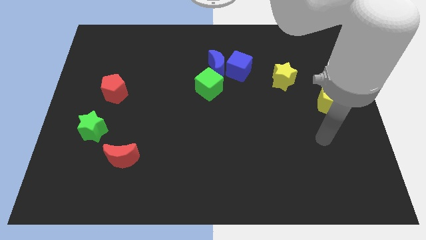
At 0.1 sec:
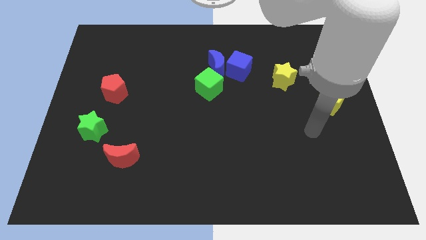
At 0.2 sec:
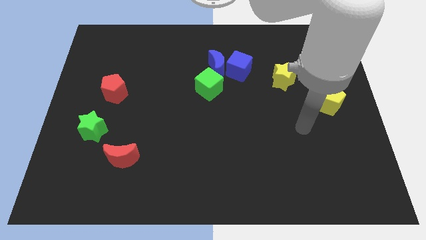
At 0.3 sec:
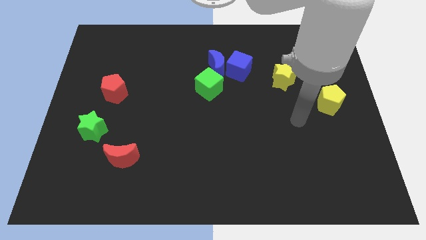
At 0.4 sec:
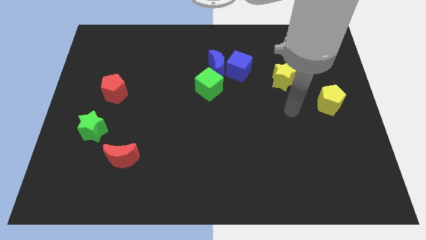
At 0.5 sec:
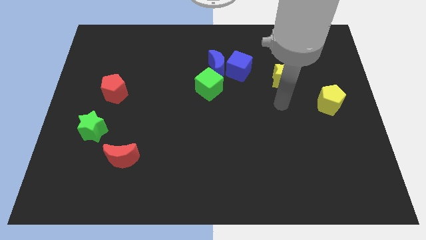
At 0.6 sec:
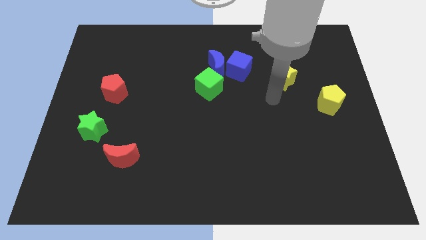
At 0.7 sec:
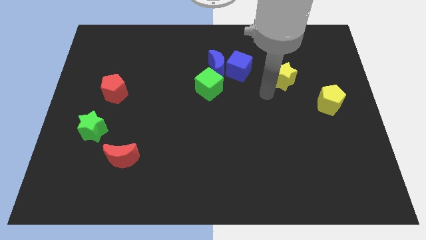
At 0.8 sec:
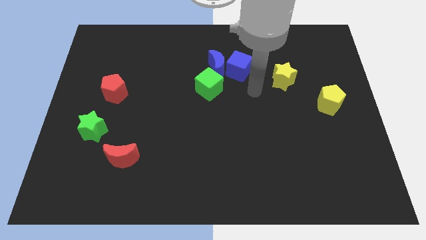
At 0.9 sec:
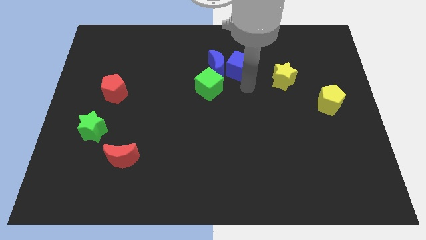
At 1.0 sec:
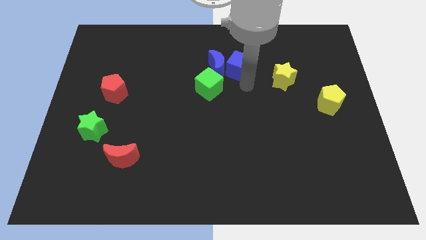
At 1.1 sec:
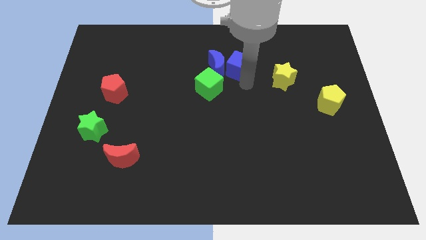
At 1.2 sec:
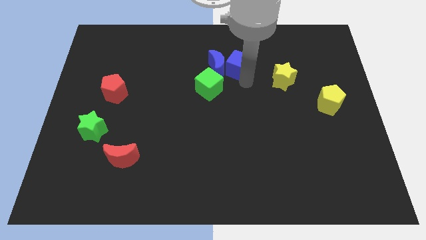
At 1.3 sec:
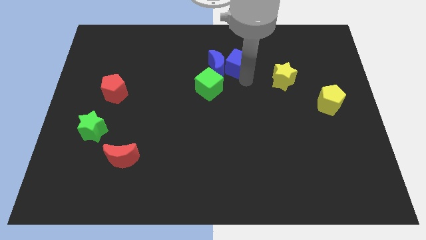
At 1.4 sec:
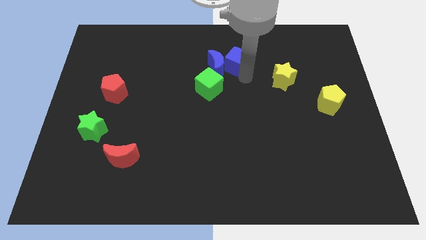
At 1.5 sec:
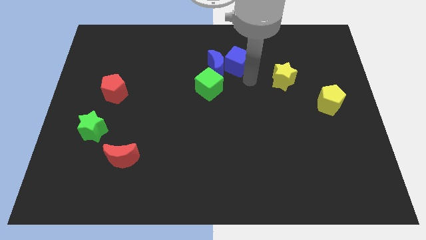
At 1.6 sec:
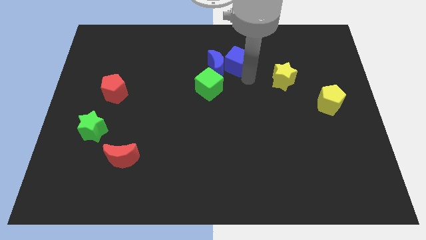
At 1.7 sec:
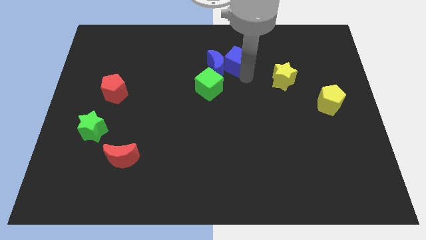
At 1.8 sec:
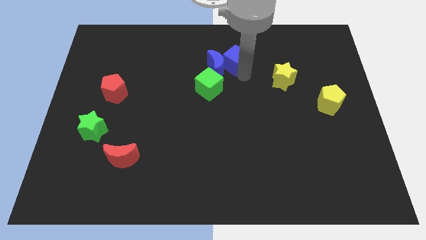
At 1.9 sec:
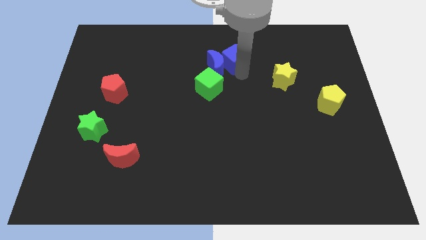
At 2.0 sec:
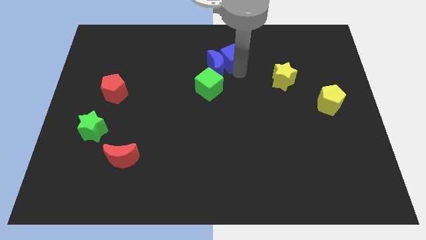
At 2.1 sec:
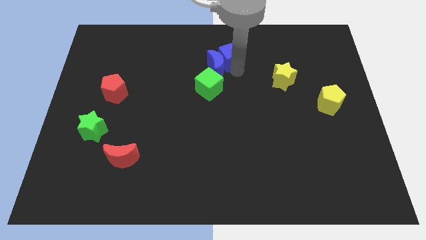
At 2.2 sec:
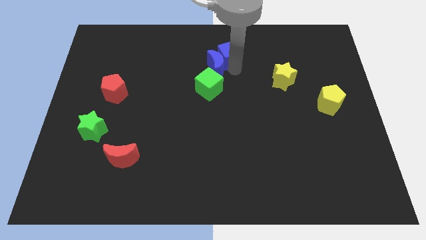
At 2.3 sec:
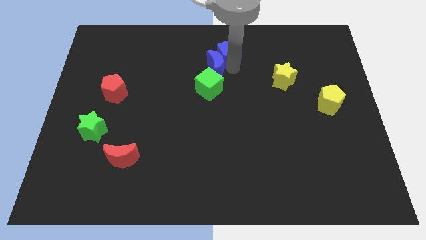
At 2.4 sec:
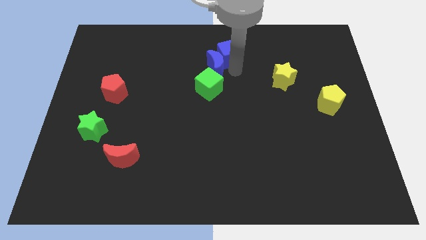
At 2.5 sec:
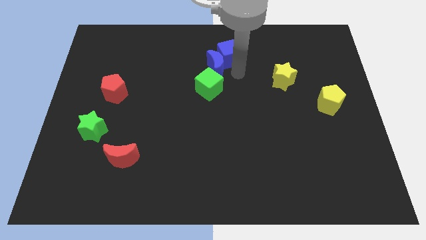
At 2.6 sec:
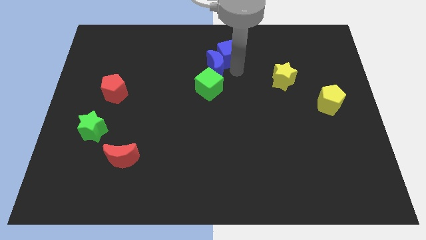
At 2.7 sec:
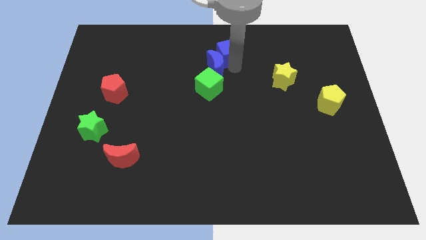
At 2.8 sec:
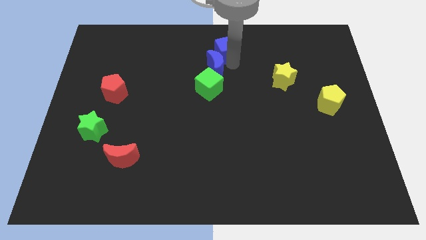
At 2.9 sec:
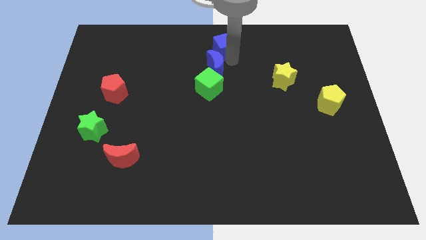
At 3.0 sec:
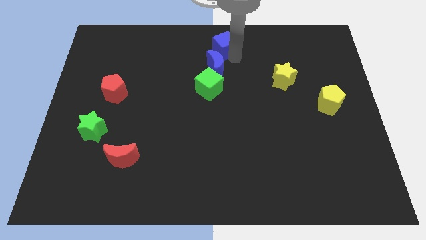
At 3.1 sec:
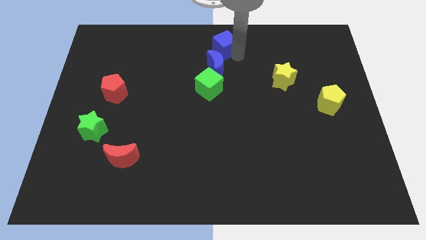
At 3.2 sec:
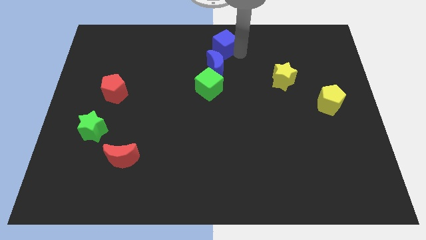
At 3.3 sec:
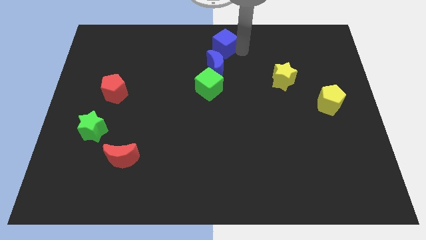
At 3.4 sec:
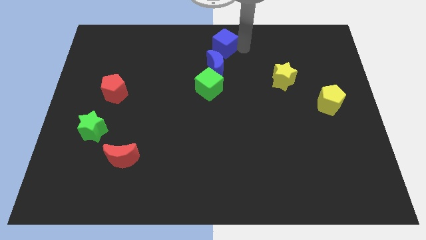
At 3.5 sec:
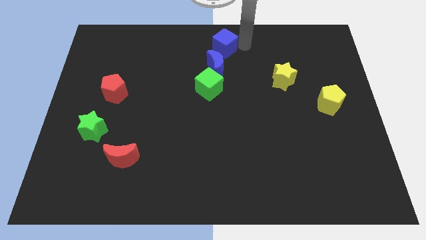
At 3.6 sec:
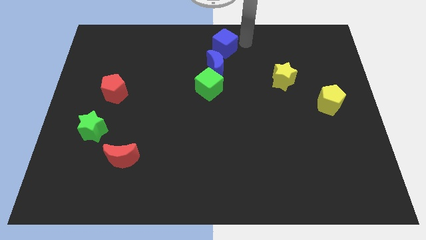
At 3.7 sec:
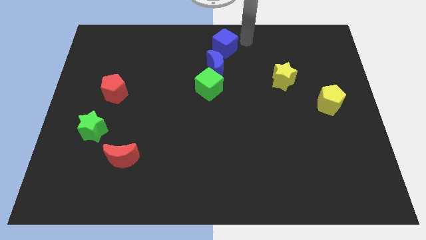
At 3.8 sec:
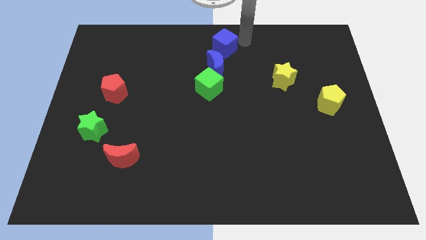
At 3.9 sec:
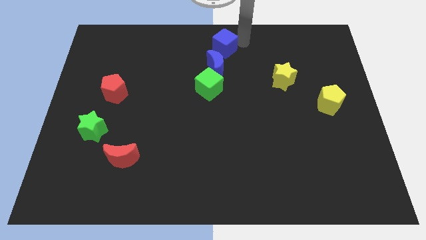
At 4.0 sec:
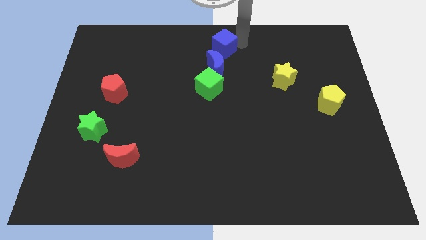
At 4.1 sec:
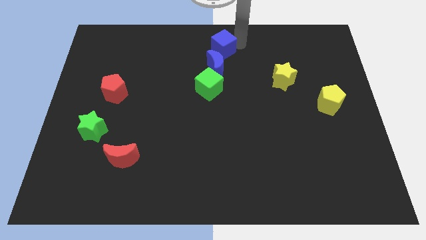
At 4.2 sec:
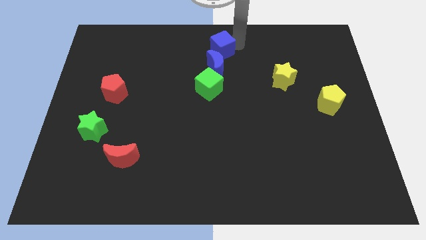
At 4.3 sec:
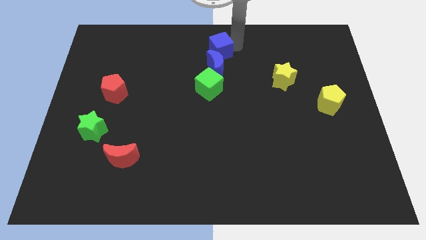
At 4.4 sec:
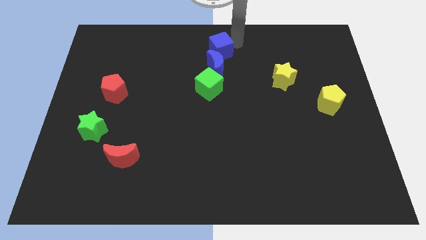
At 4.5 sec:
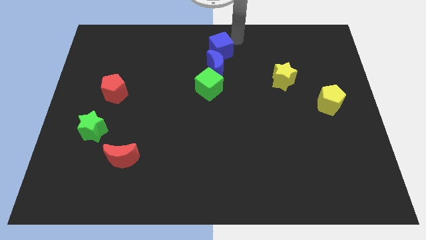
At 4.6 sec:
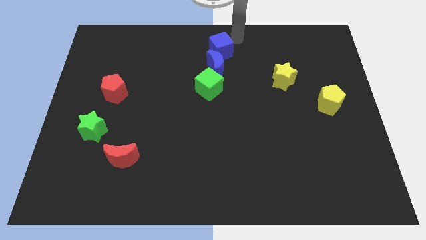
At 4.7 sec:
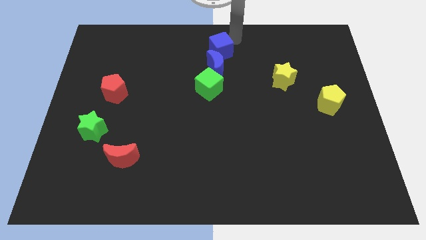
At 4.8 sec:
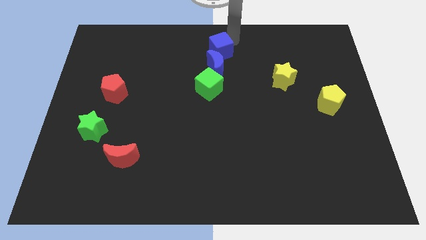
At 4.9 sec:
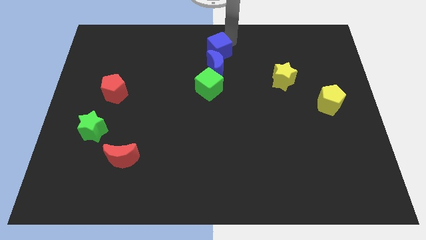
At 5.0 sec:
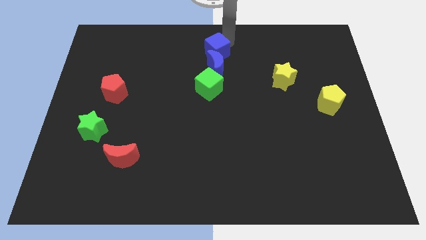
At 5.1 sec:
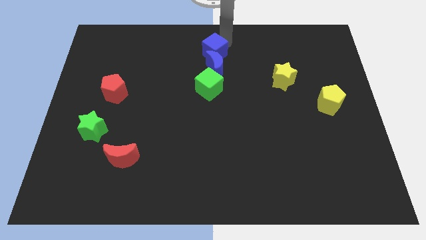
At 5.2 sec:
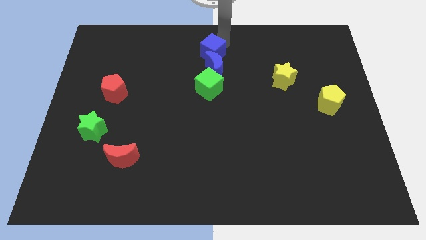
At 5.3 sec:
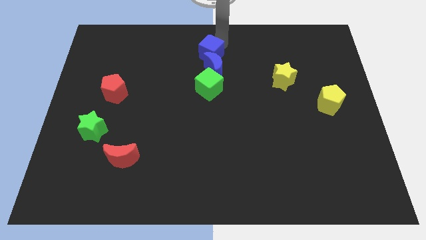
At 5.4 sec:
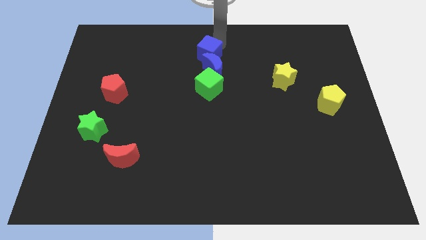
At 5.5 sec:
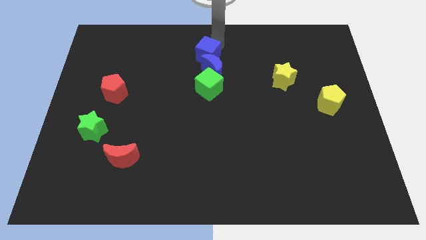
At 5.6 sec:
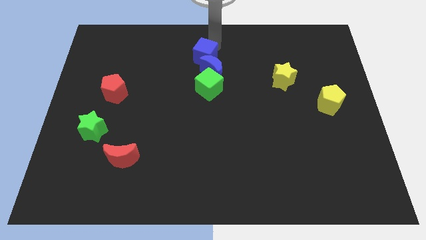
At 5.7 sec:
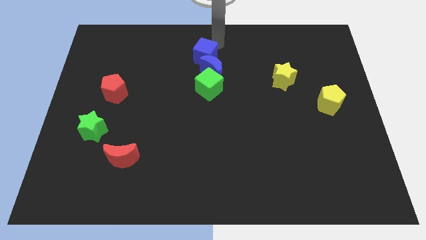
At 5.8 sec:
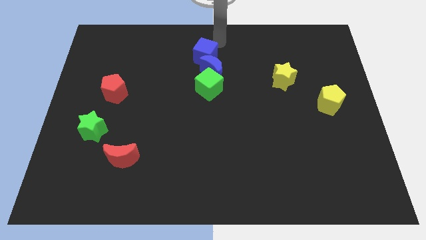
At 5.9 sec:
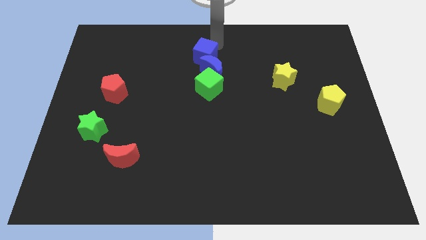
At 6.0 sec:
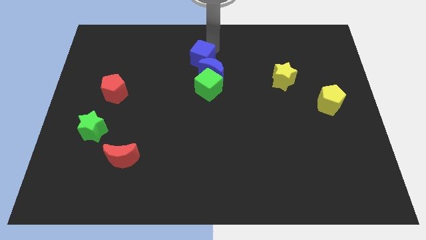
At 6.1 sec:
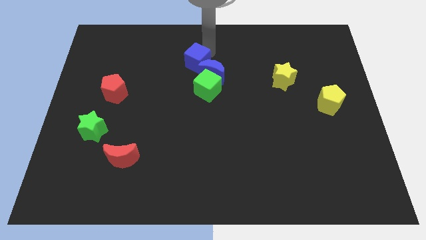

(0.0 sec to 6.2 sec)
put the blue cube diagonally up and to the left of the green cube

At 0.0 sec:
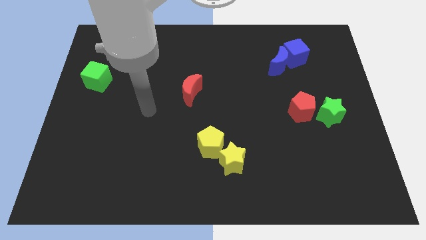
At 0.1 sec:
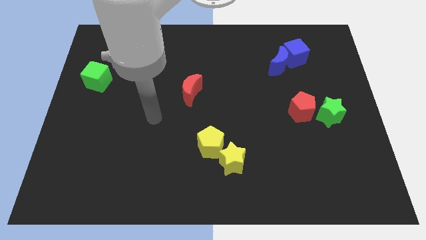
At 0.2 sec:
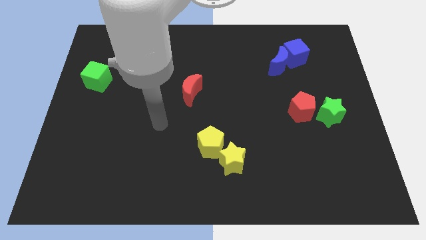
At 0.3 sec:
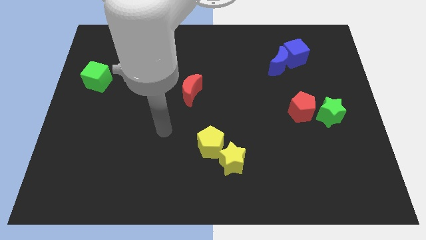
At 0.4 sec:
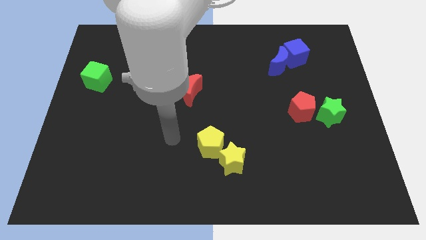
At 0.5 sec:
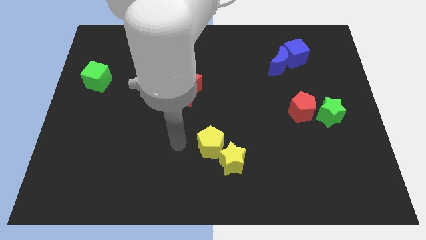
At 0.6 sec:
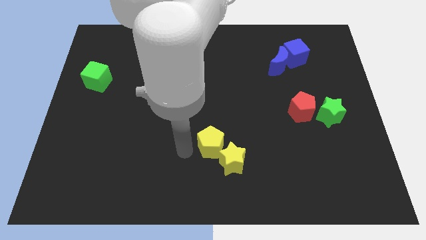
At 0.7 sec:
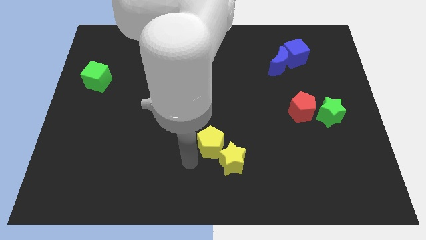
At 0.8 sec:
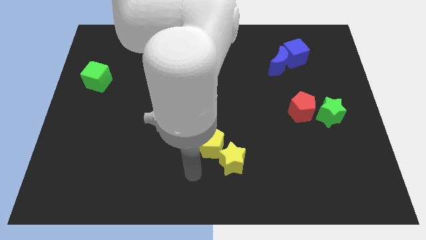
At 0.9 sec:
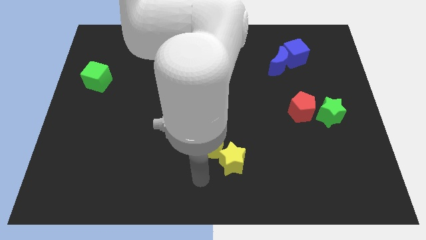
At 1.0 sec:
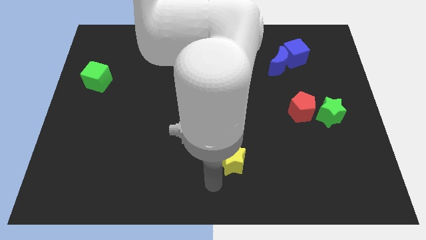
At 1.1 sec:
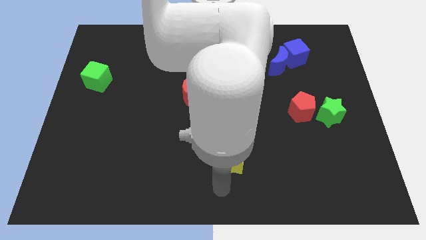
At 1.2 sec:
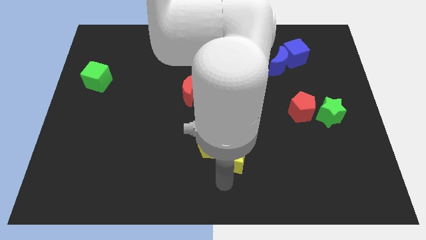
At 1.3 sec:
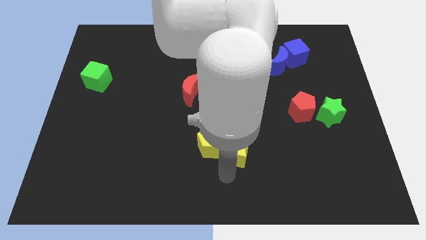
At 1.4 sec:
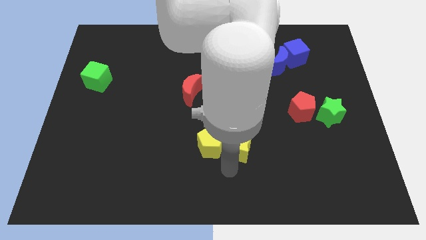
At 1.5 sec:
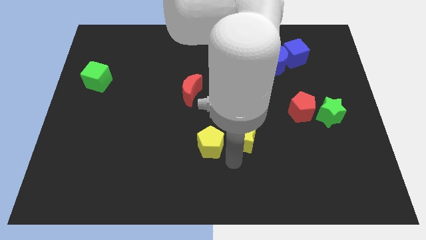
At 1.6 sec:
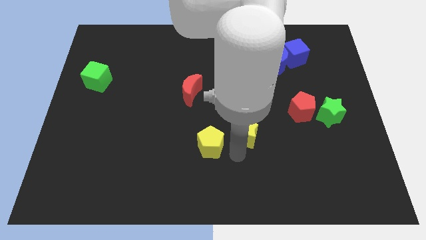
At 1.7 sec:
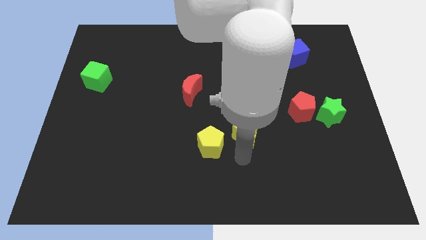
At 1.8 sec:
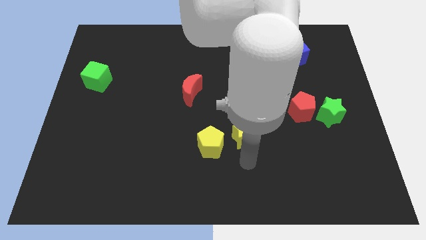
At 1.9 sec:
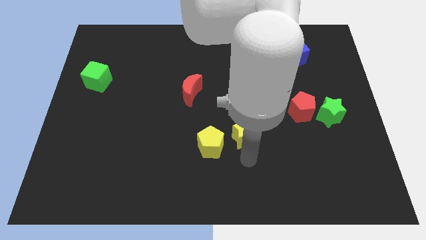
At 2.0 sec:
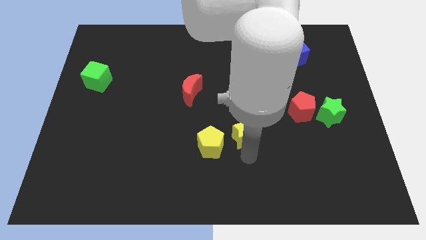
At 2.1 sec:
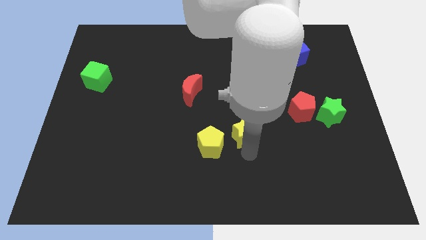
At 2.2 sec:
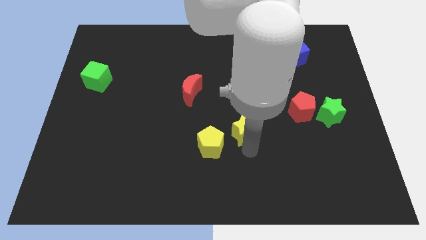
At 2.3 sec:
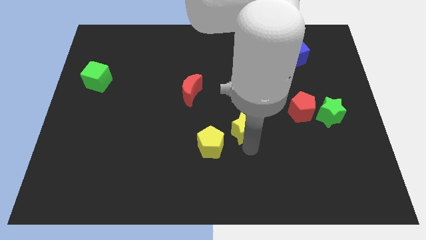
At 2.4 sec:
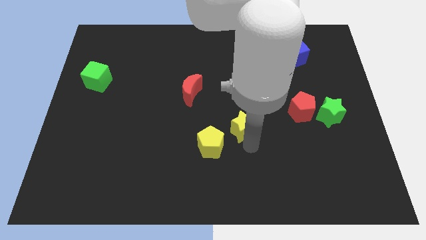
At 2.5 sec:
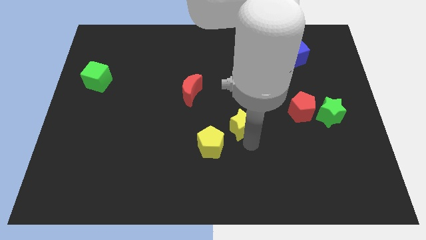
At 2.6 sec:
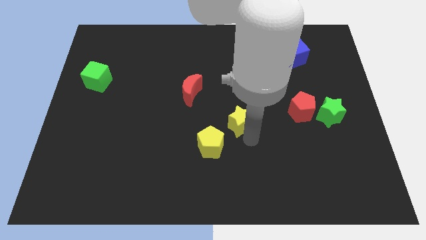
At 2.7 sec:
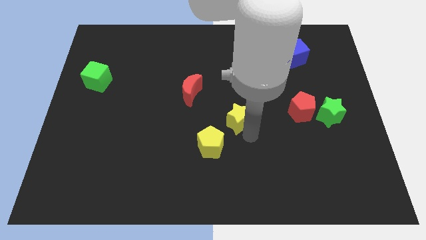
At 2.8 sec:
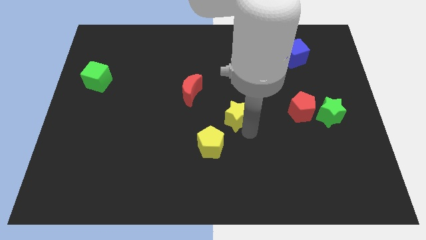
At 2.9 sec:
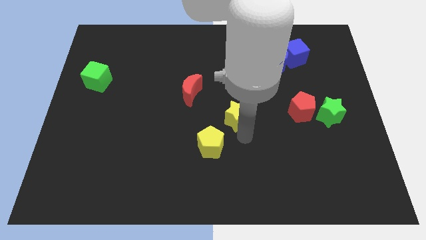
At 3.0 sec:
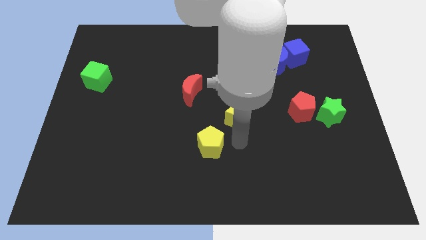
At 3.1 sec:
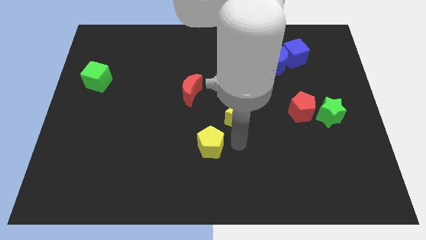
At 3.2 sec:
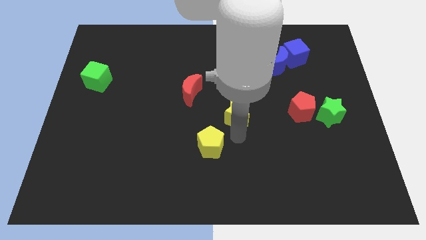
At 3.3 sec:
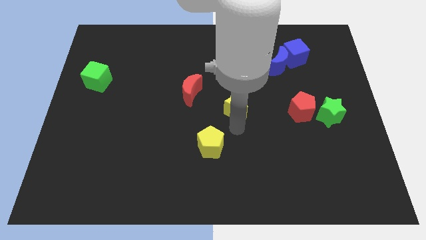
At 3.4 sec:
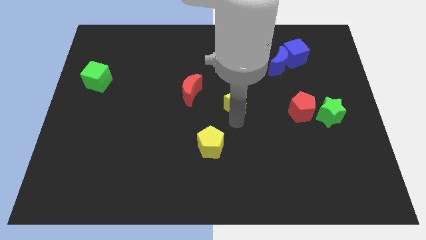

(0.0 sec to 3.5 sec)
push the yellow star to the right side of the red moon
